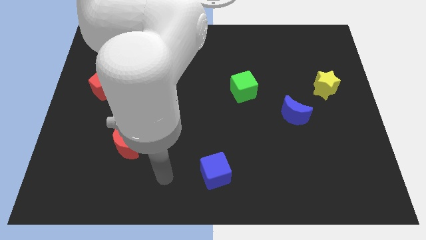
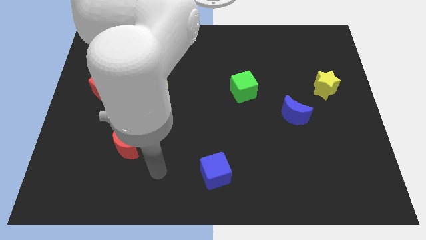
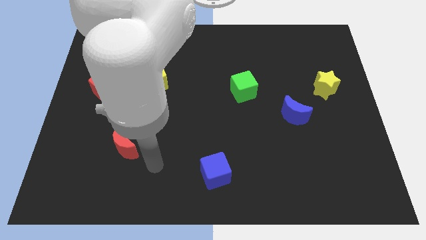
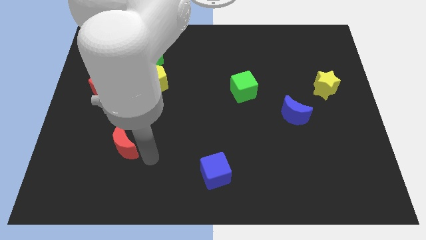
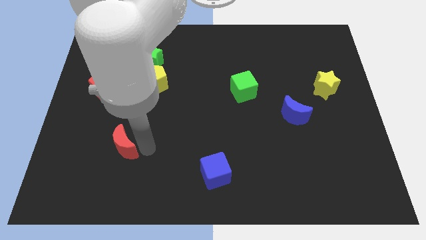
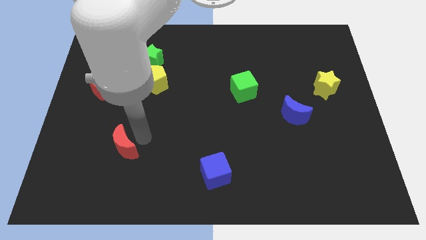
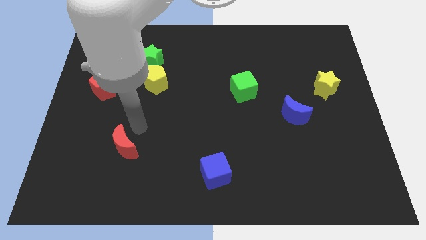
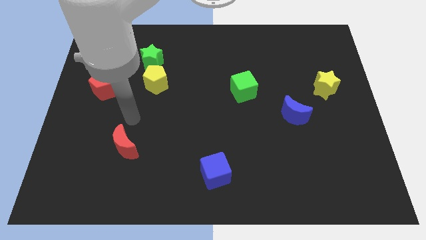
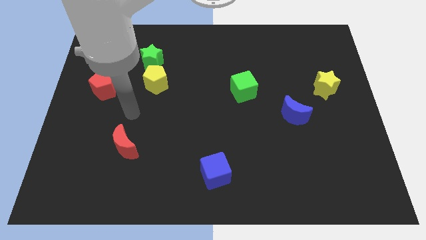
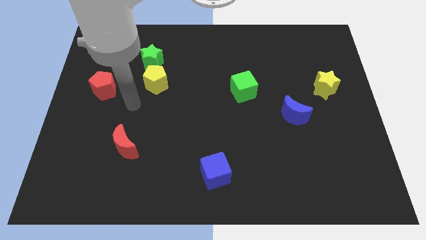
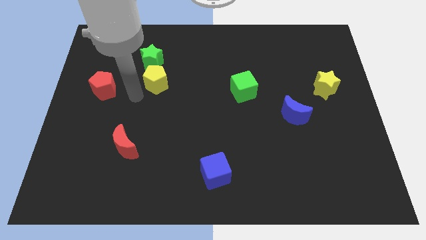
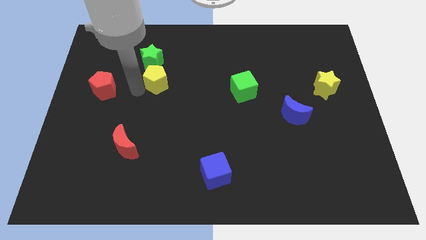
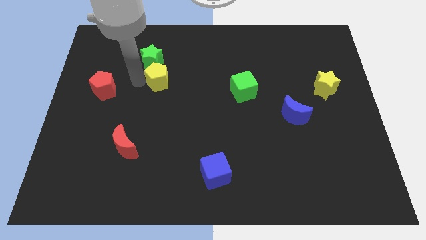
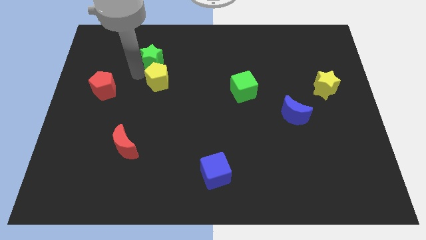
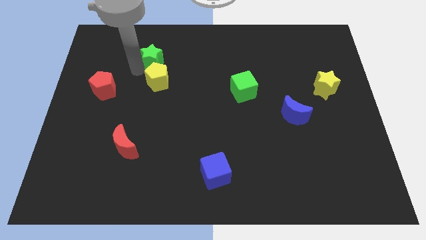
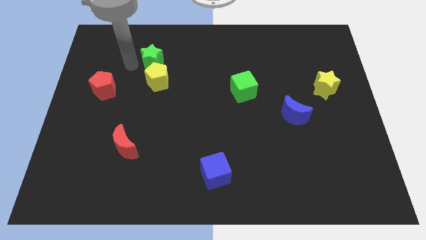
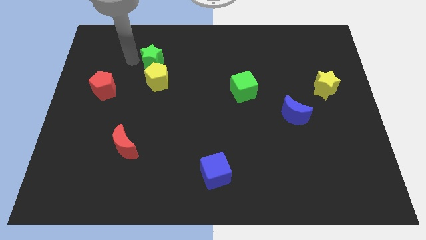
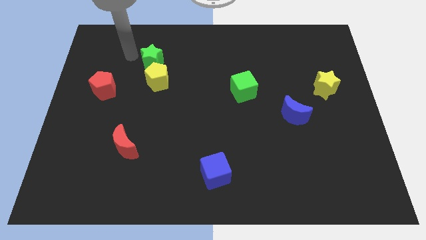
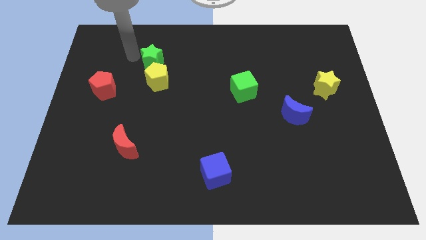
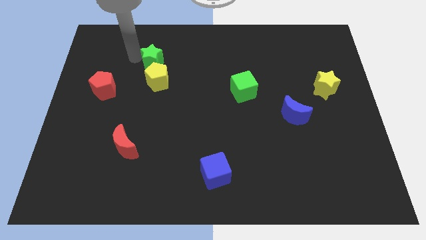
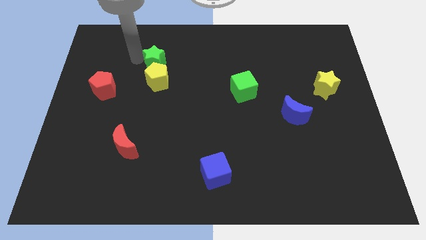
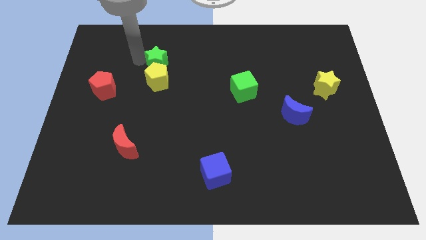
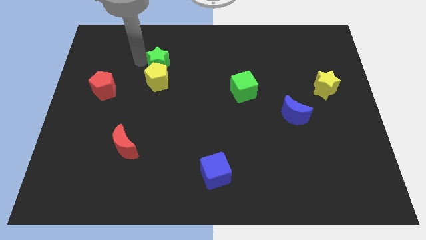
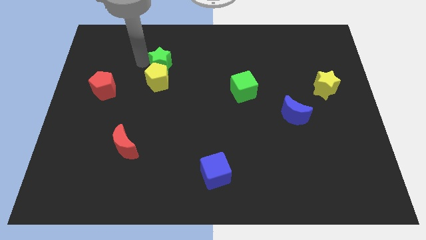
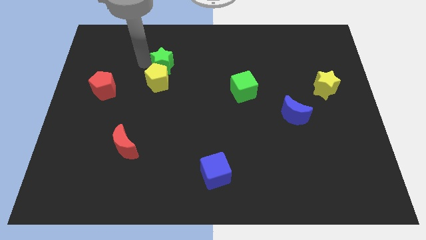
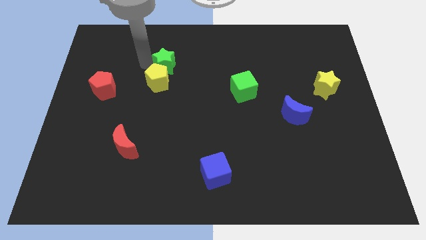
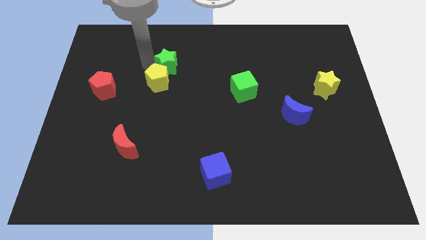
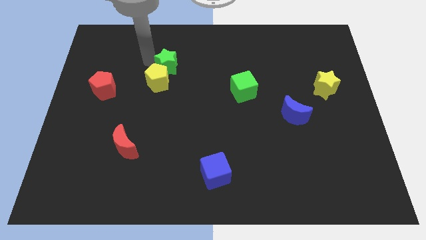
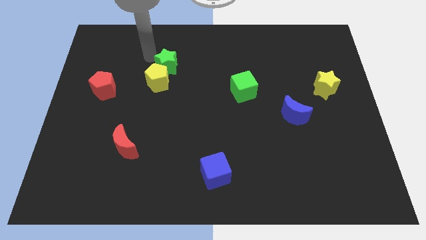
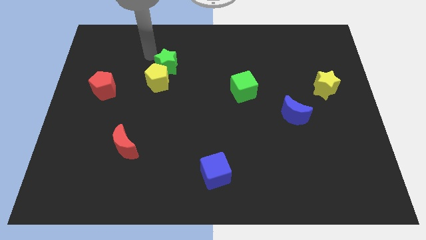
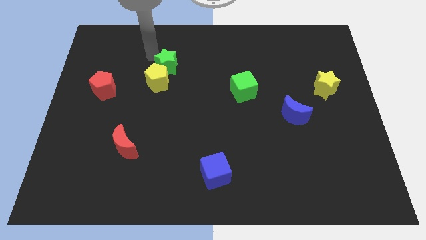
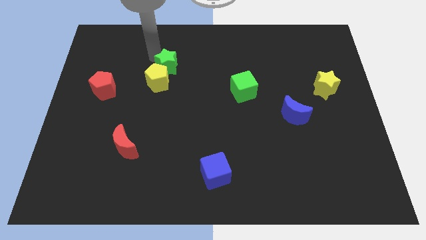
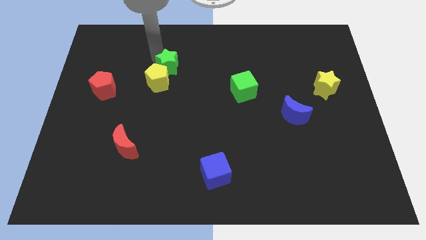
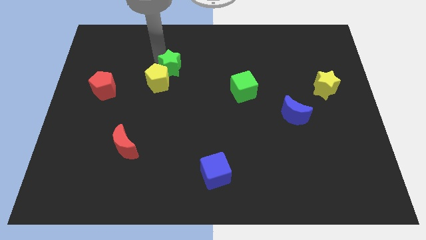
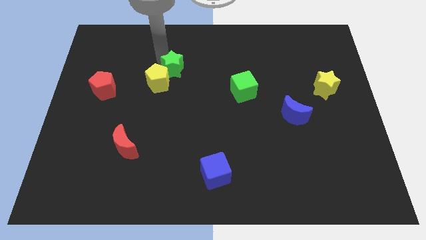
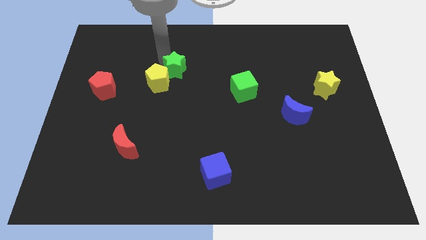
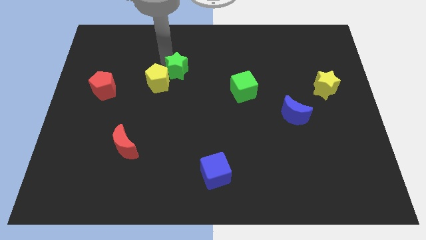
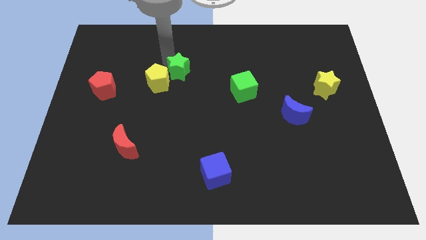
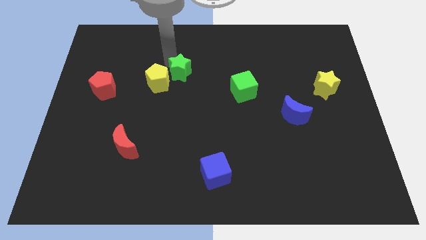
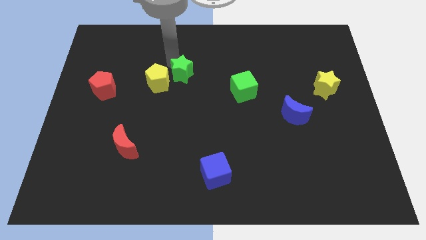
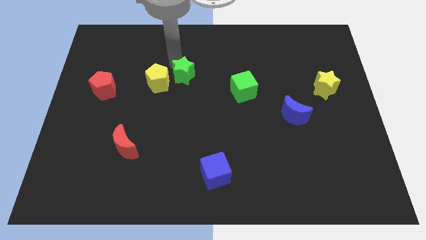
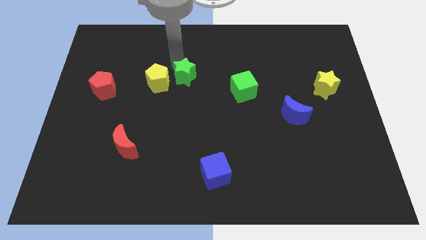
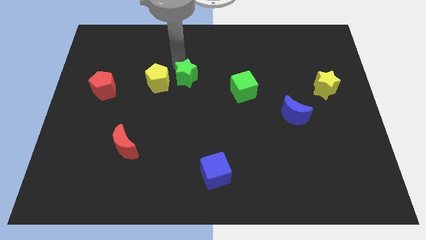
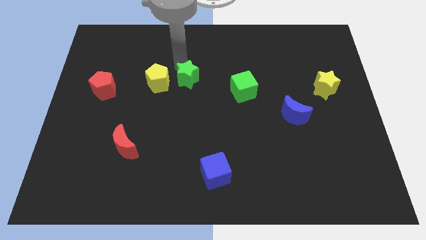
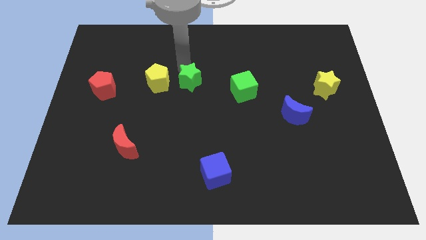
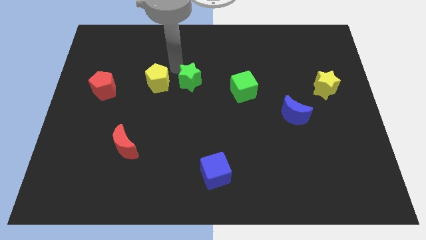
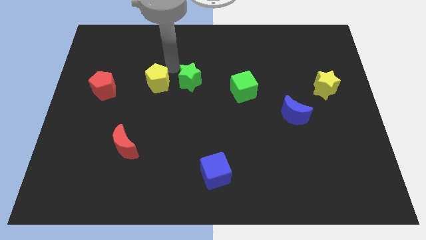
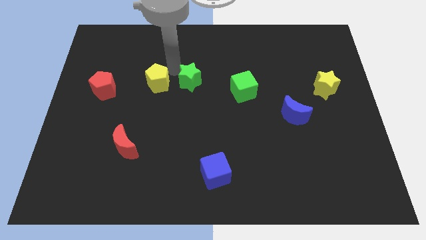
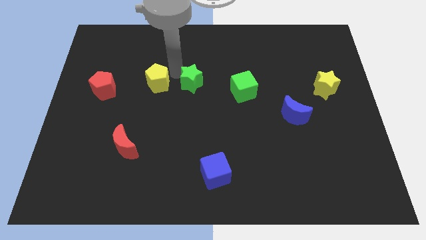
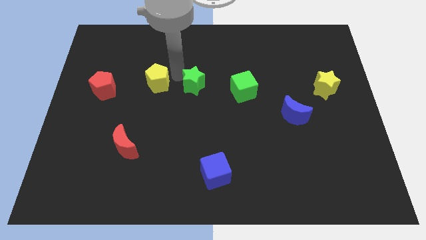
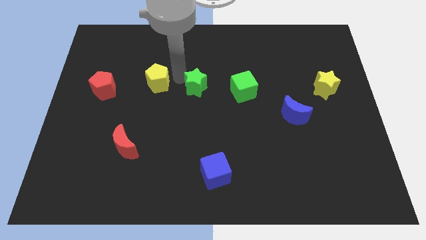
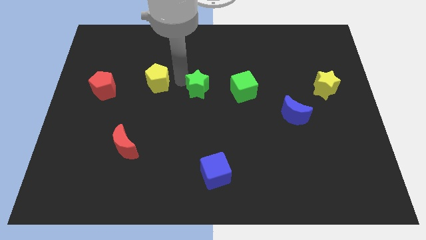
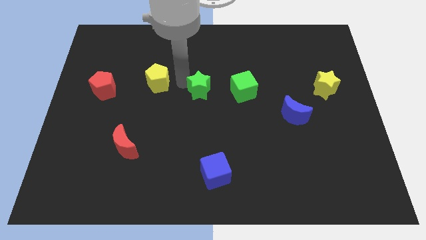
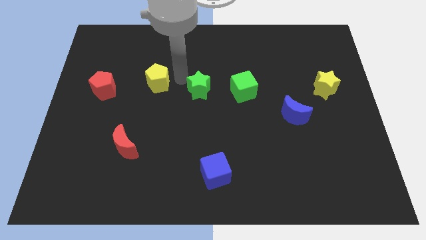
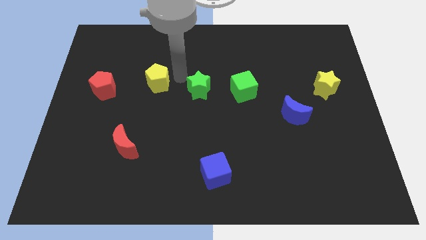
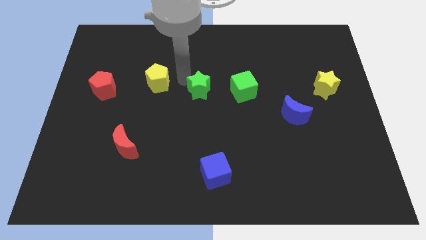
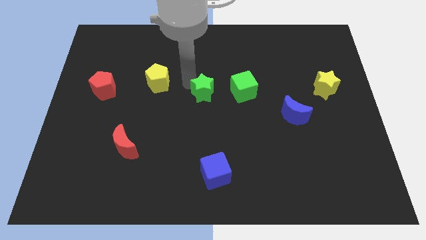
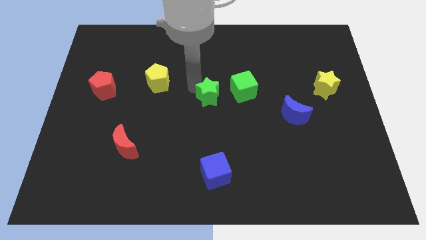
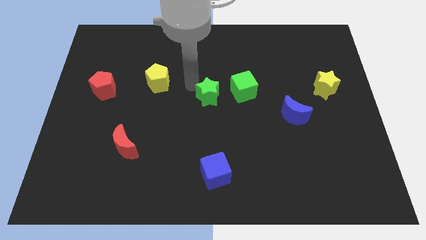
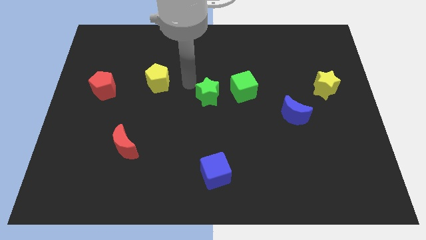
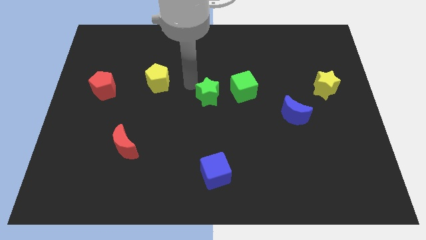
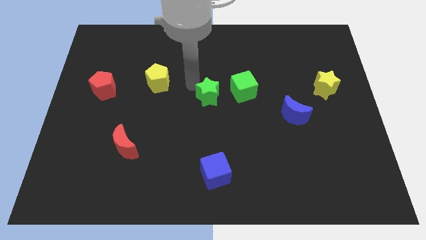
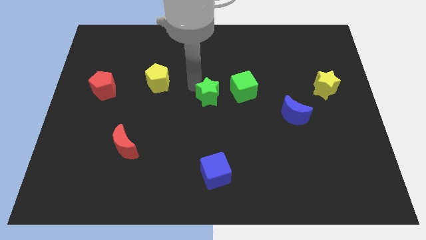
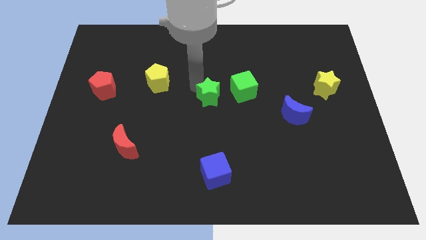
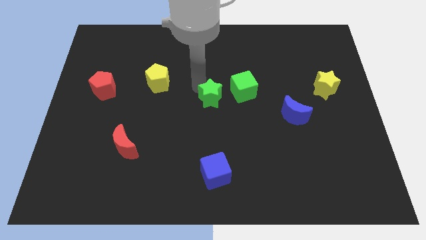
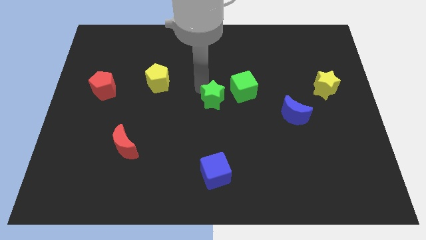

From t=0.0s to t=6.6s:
move the green star diagonally downwards and to the right

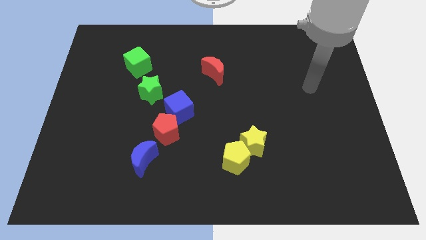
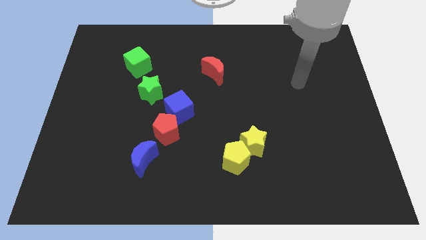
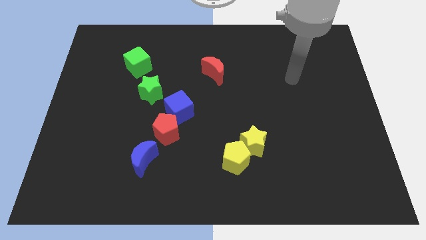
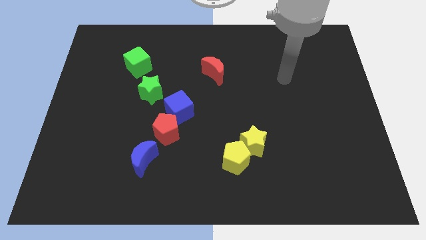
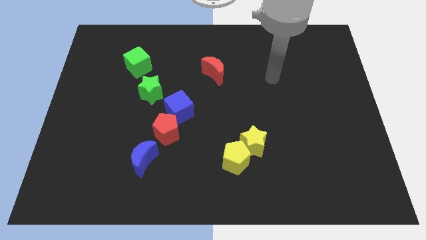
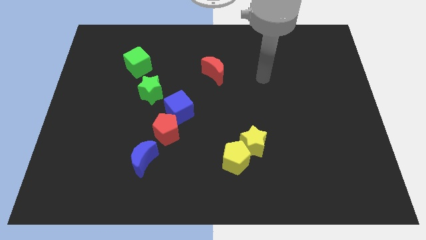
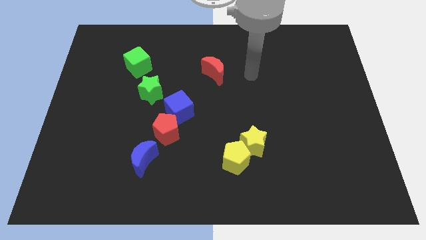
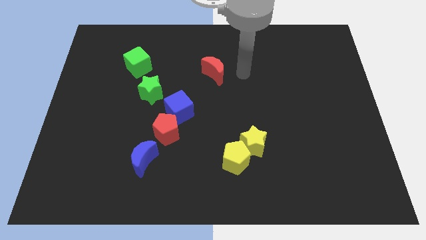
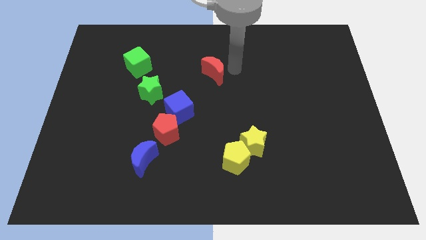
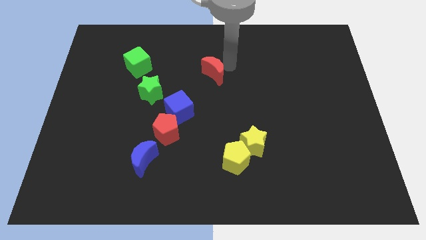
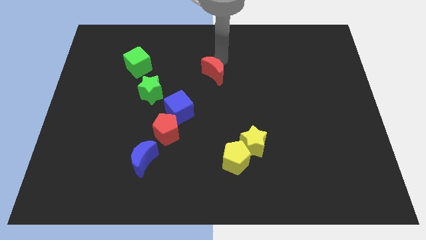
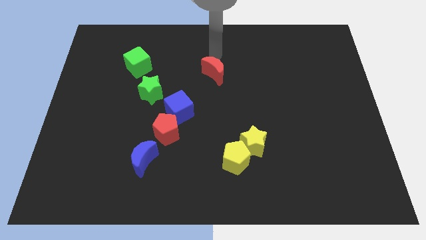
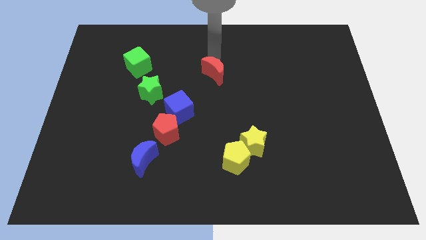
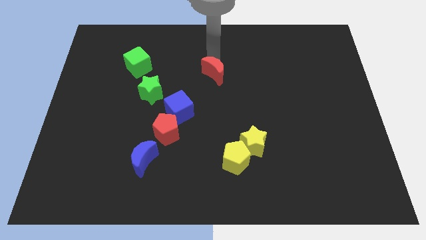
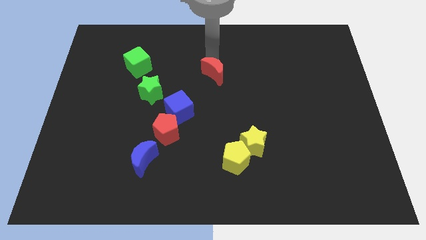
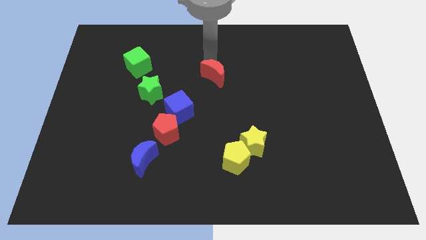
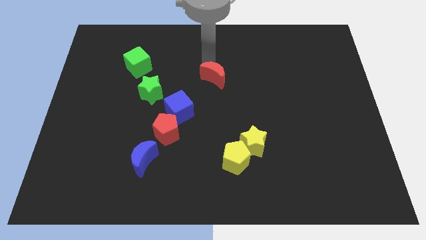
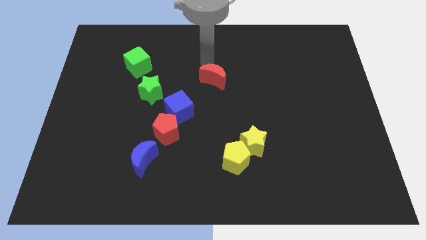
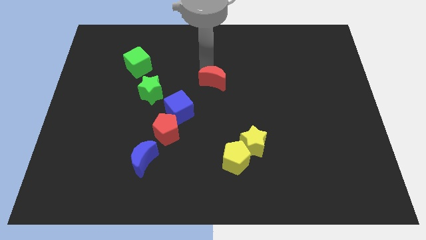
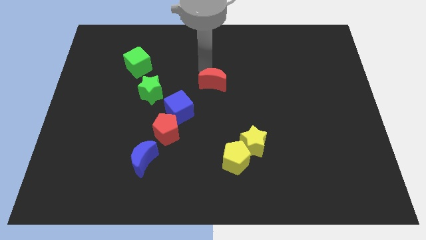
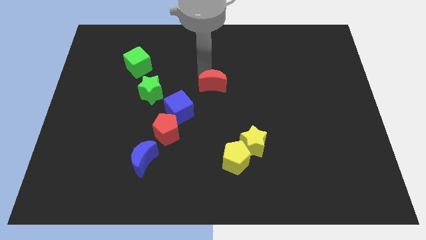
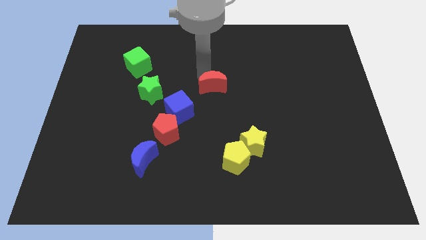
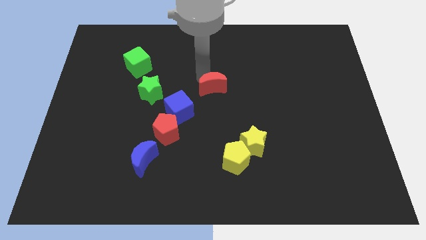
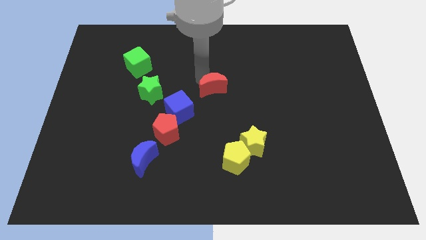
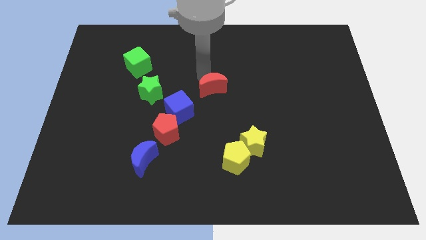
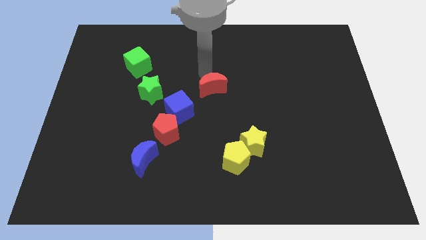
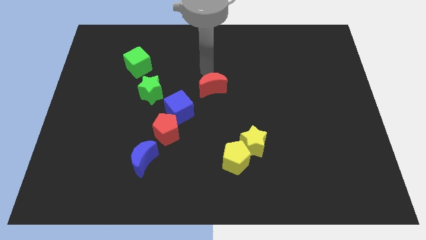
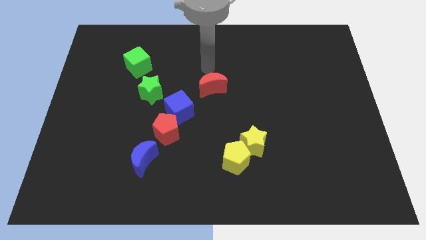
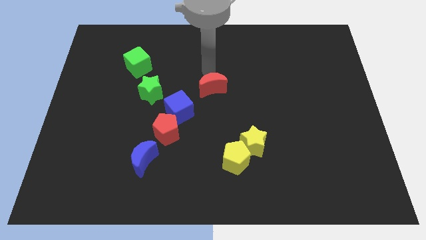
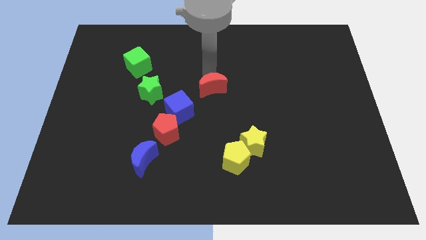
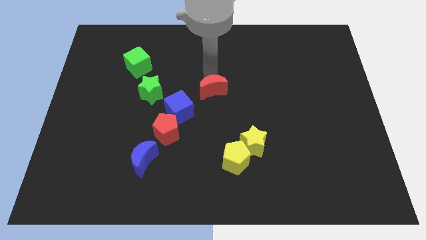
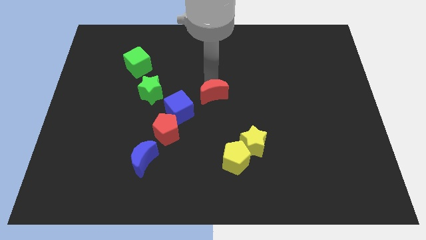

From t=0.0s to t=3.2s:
slightly push the red moon down
